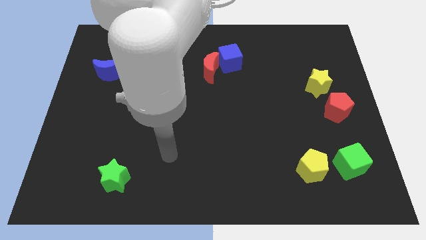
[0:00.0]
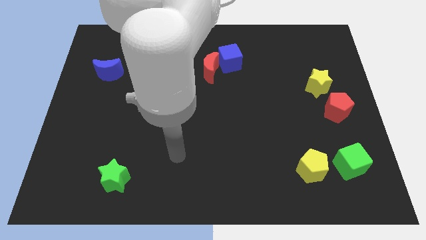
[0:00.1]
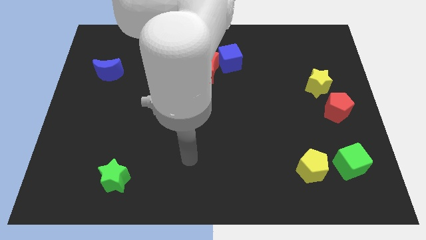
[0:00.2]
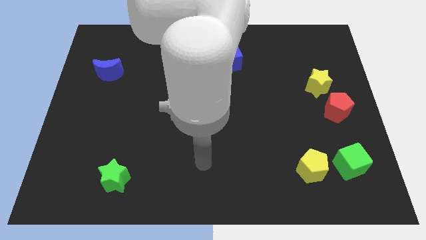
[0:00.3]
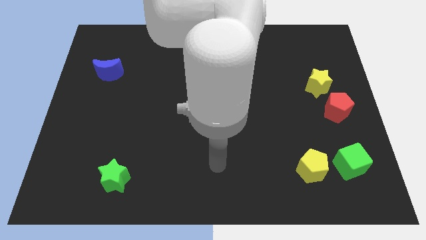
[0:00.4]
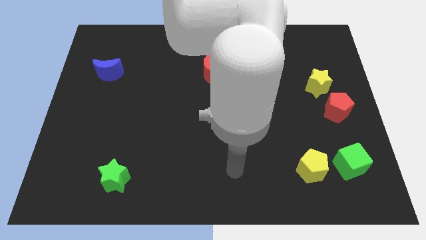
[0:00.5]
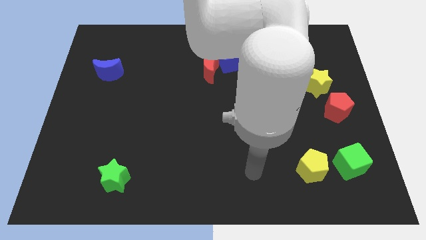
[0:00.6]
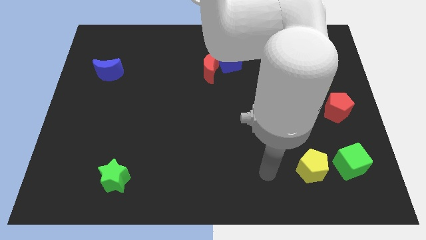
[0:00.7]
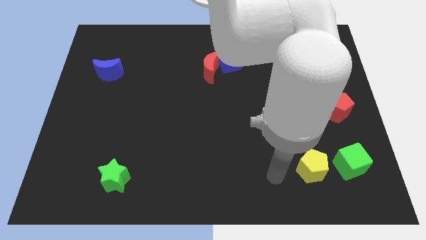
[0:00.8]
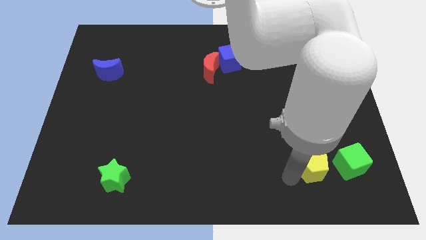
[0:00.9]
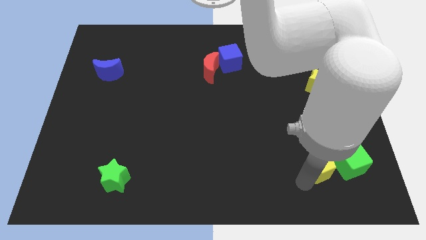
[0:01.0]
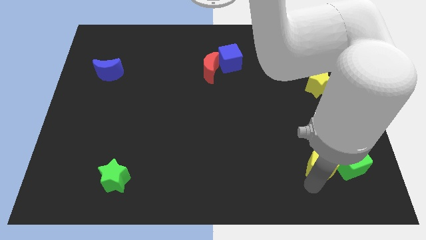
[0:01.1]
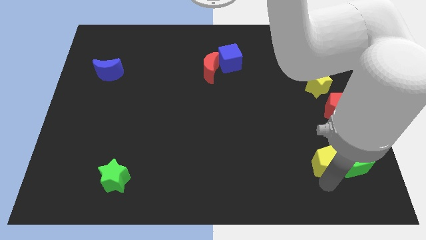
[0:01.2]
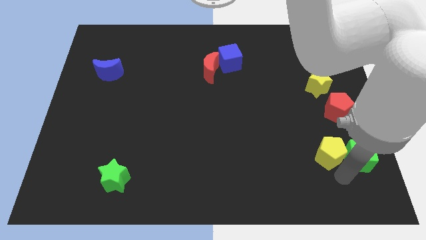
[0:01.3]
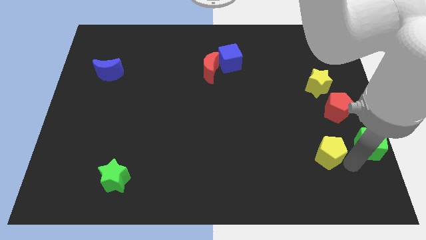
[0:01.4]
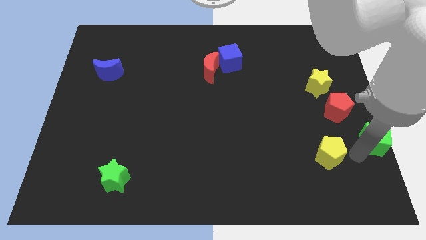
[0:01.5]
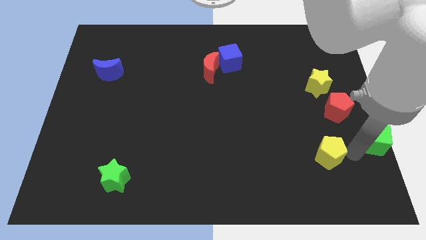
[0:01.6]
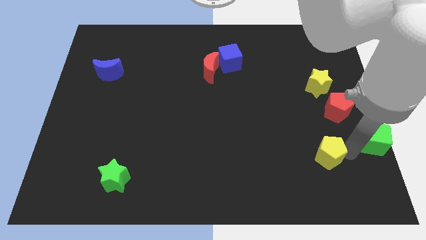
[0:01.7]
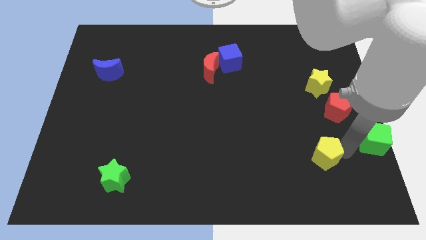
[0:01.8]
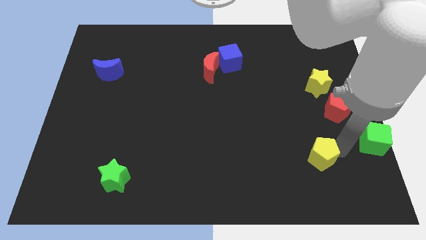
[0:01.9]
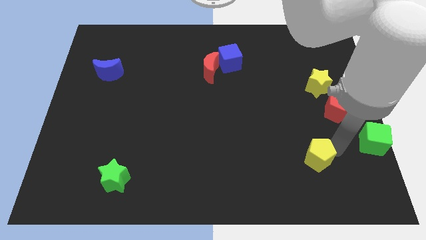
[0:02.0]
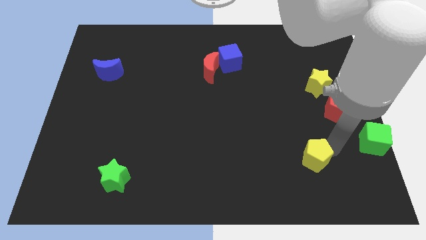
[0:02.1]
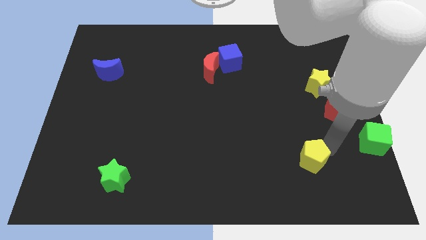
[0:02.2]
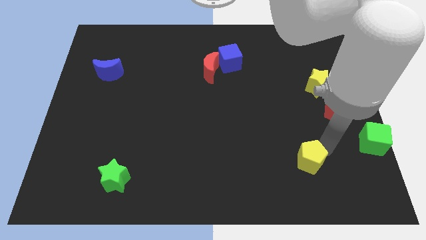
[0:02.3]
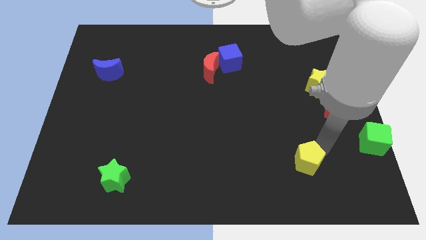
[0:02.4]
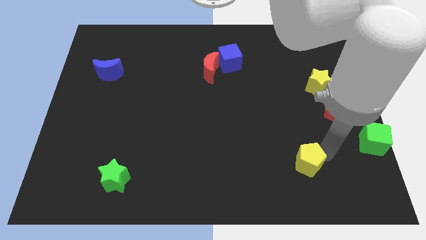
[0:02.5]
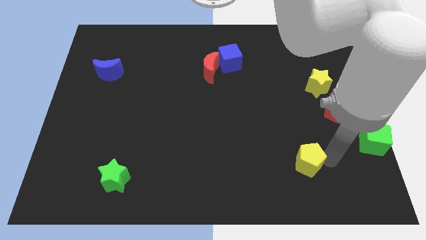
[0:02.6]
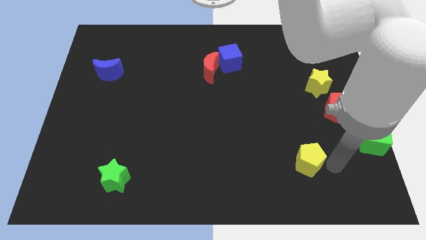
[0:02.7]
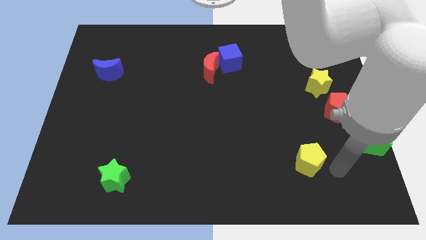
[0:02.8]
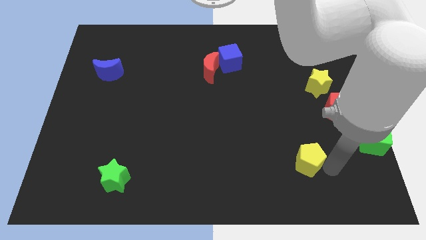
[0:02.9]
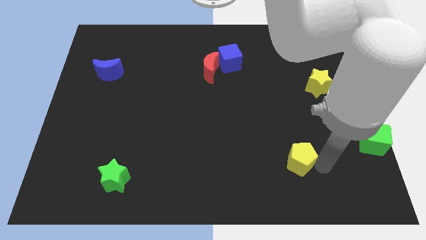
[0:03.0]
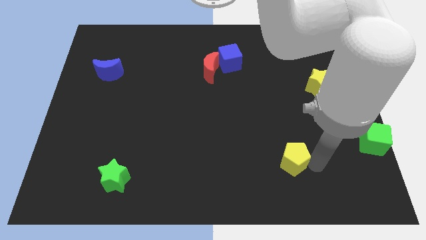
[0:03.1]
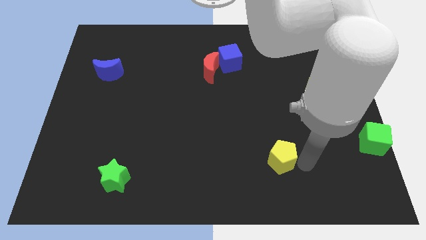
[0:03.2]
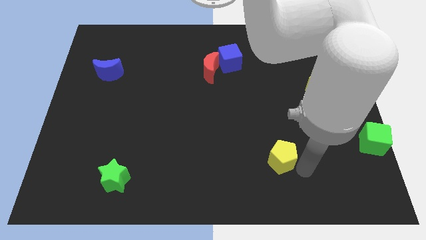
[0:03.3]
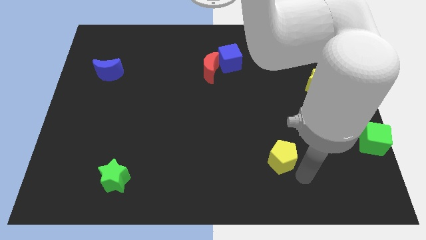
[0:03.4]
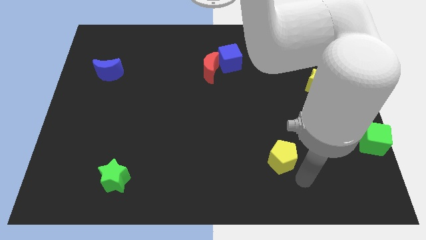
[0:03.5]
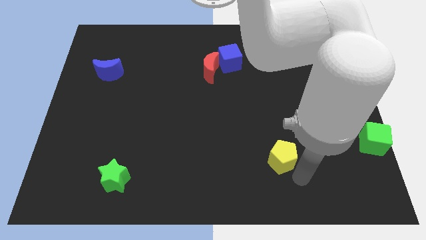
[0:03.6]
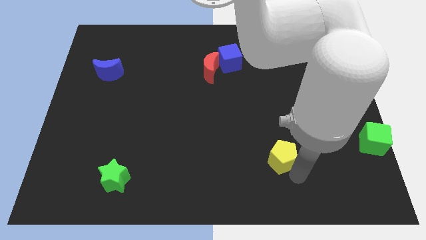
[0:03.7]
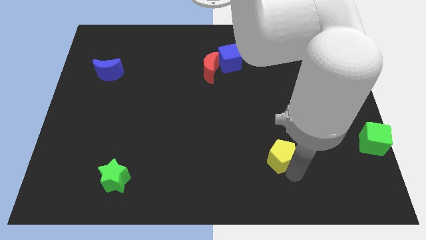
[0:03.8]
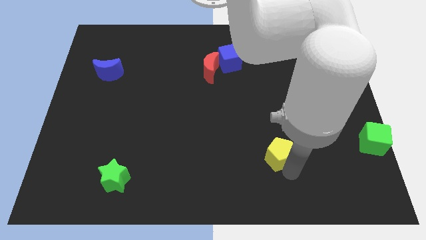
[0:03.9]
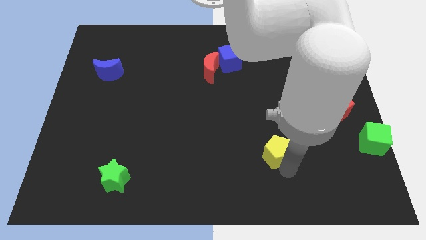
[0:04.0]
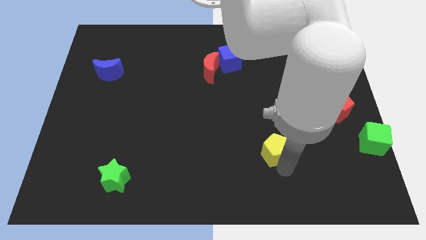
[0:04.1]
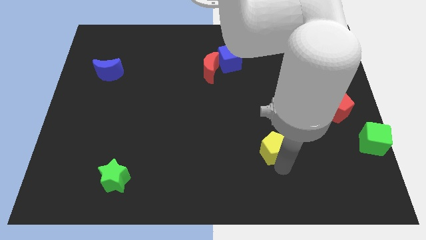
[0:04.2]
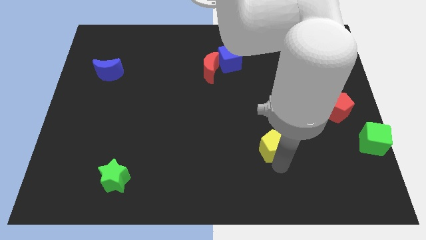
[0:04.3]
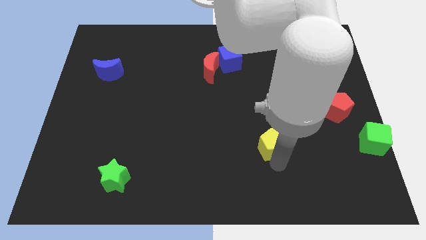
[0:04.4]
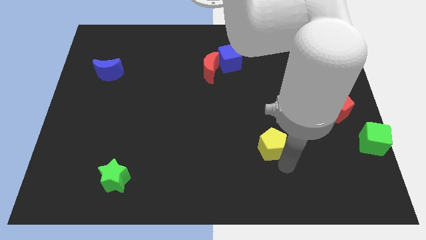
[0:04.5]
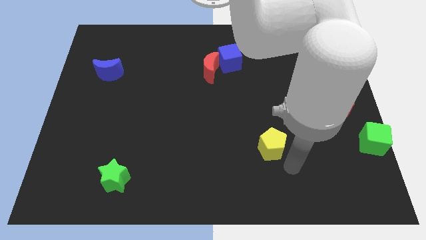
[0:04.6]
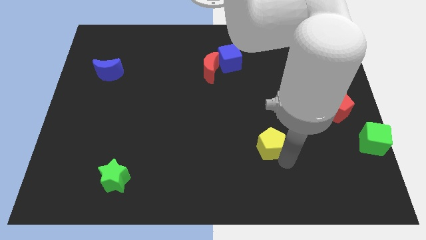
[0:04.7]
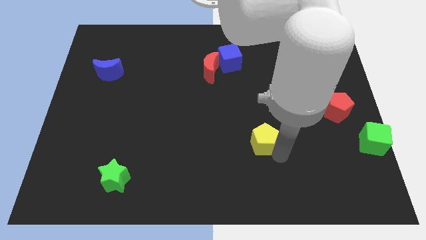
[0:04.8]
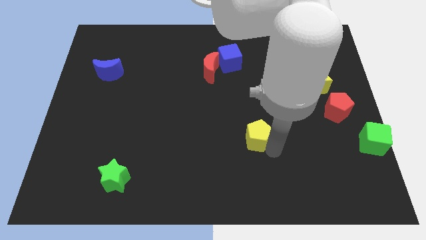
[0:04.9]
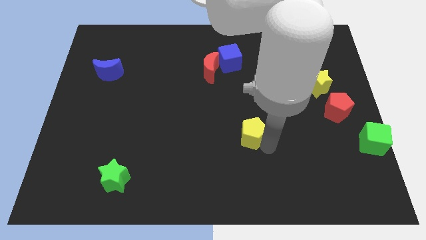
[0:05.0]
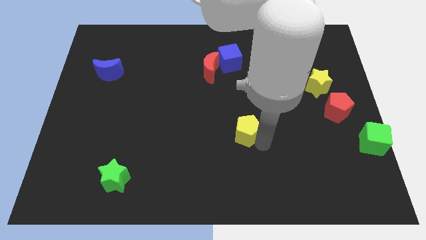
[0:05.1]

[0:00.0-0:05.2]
push the yellow pentagon to the middle

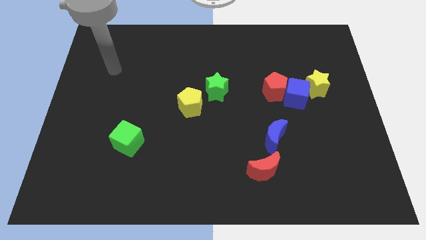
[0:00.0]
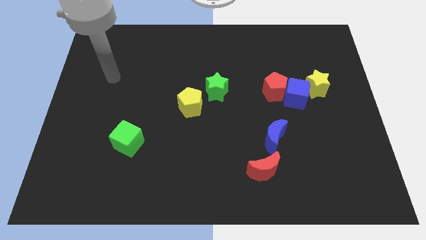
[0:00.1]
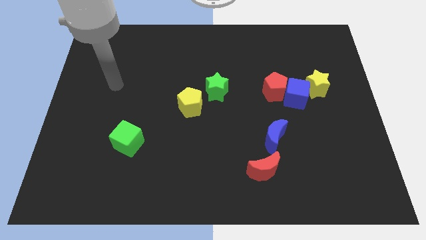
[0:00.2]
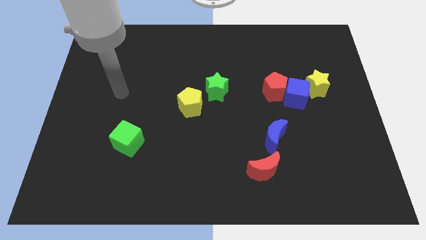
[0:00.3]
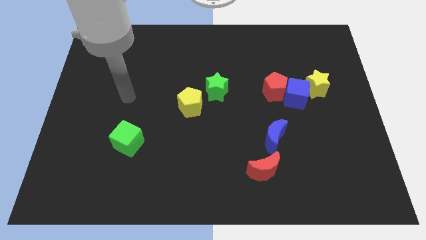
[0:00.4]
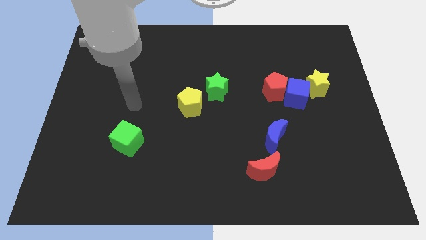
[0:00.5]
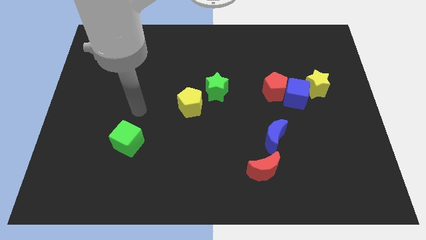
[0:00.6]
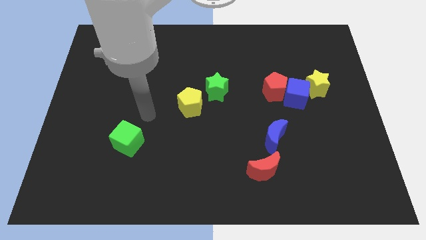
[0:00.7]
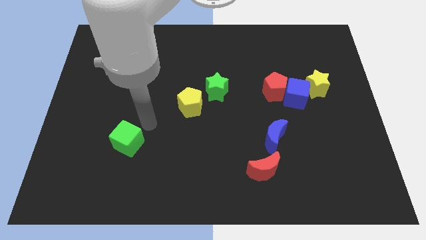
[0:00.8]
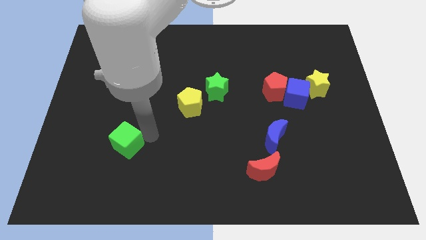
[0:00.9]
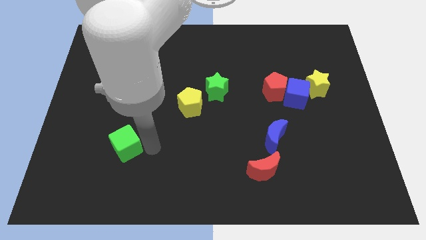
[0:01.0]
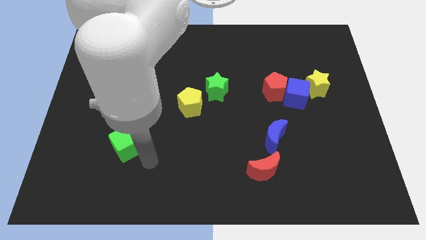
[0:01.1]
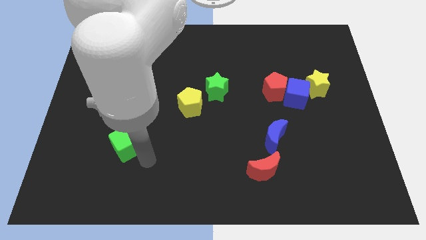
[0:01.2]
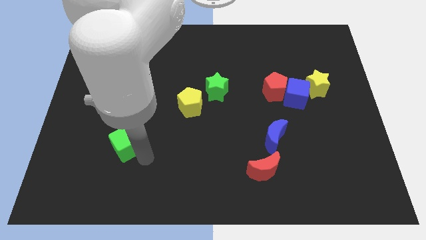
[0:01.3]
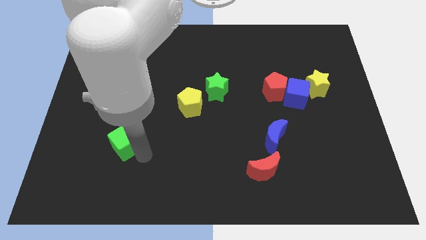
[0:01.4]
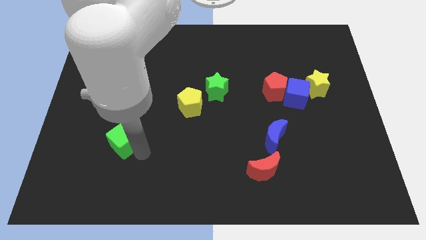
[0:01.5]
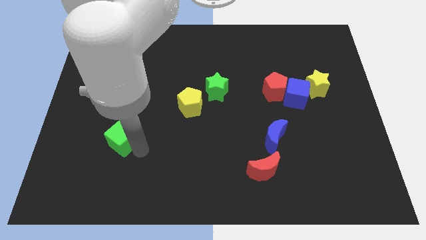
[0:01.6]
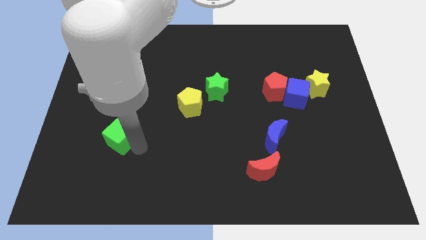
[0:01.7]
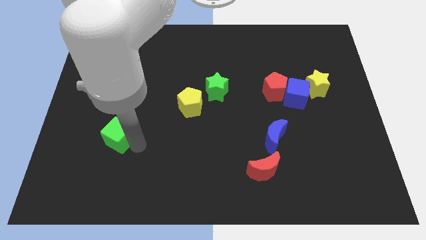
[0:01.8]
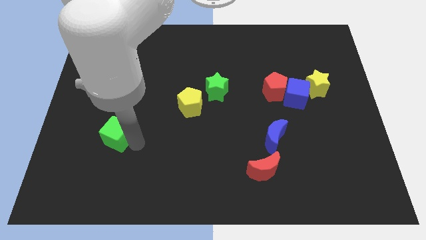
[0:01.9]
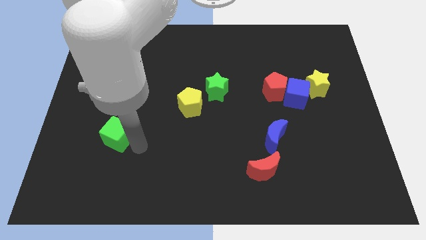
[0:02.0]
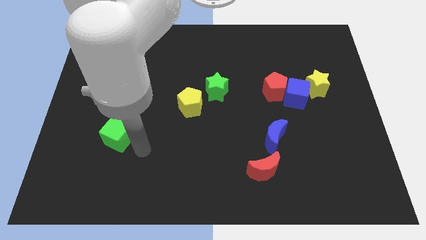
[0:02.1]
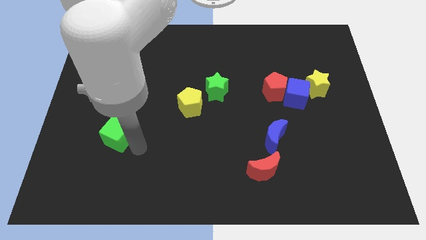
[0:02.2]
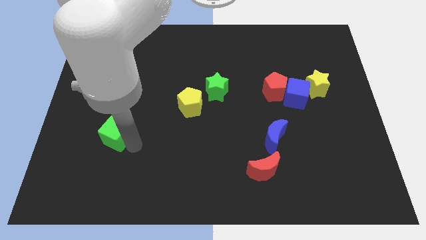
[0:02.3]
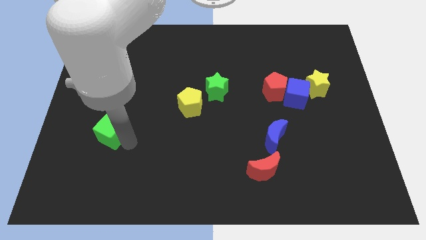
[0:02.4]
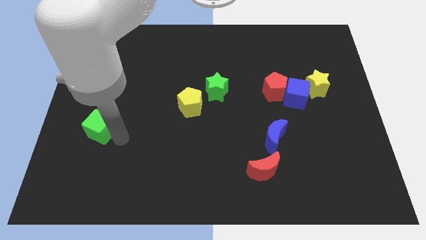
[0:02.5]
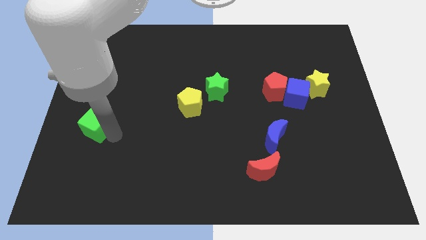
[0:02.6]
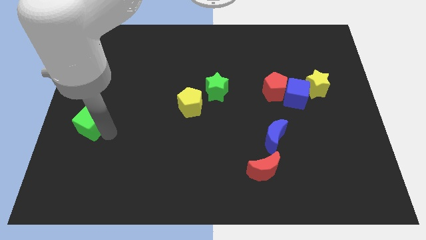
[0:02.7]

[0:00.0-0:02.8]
put the green cube to the center left
